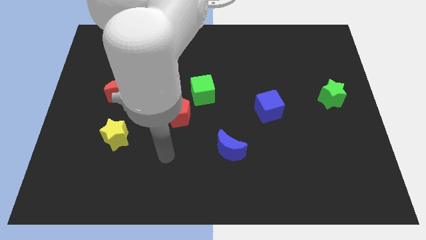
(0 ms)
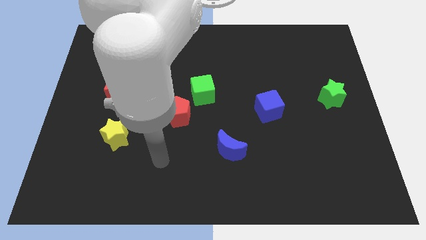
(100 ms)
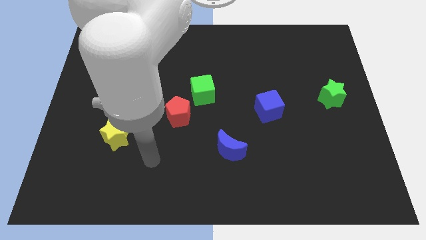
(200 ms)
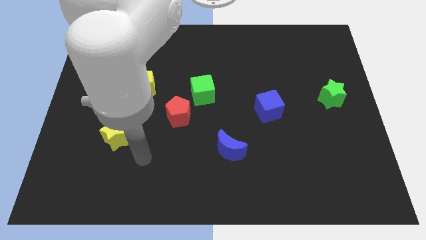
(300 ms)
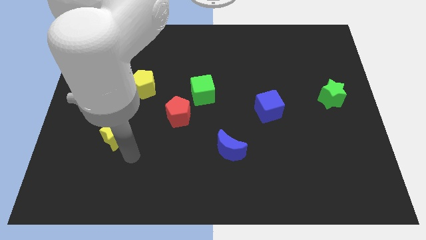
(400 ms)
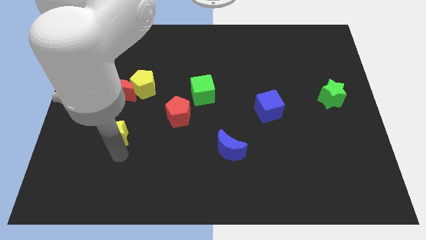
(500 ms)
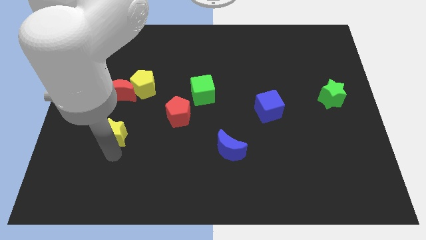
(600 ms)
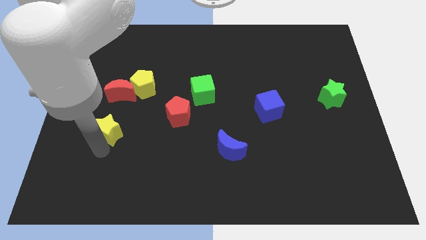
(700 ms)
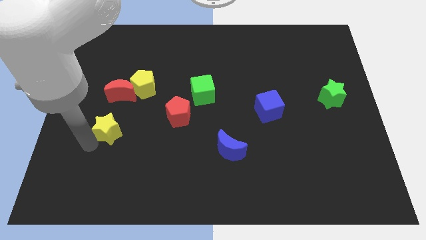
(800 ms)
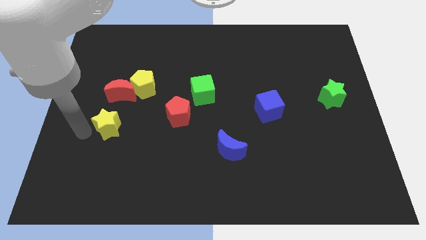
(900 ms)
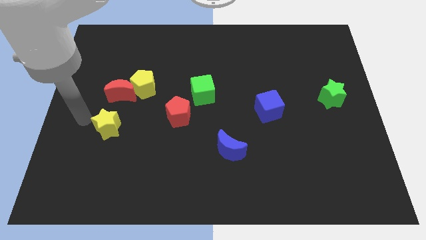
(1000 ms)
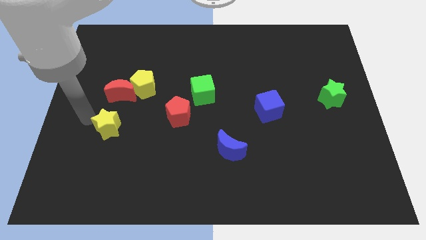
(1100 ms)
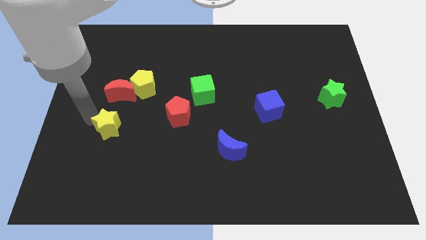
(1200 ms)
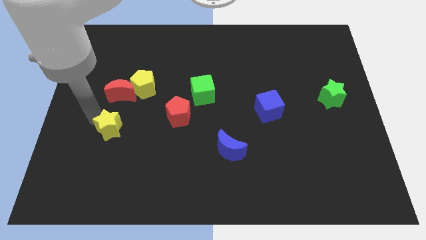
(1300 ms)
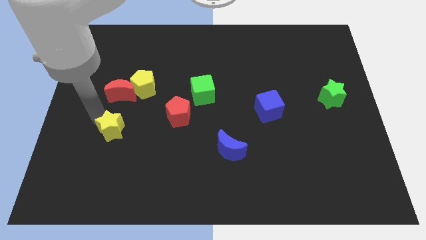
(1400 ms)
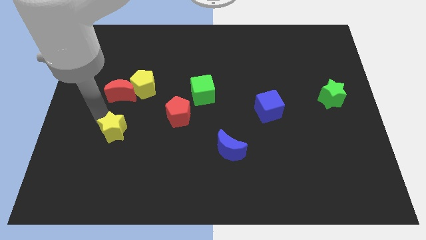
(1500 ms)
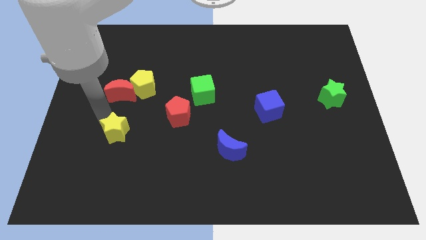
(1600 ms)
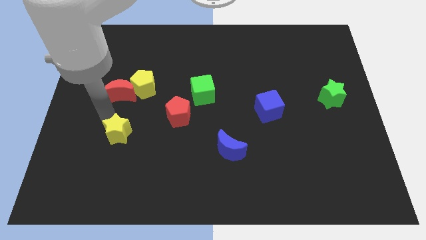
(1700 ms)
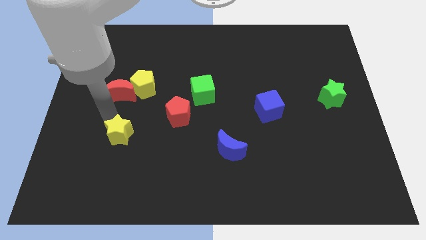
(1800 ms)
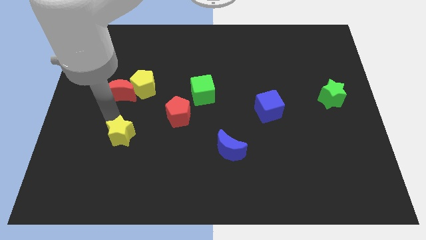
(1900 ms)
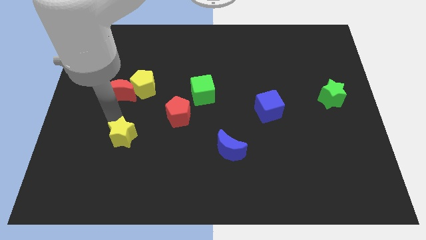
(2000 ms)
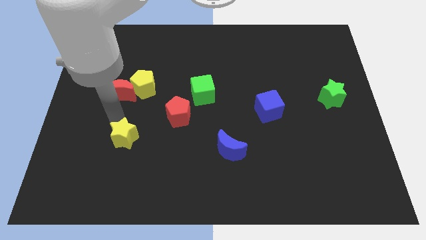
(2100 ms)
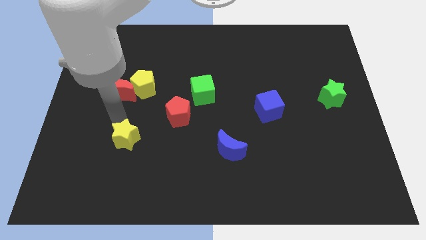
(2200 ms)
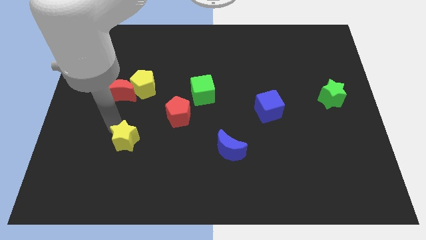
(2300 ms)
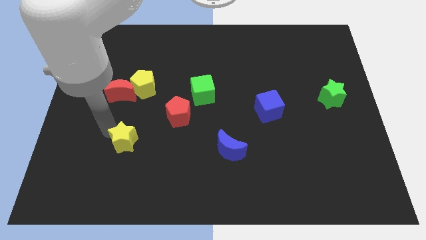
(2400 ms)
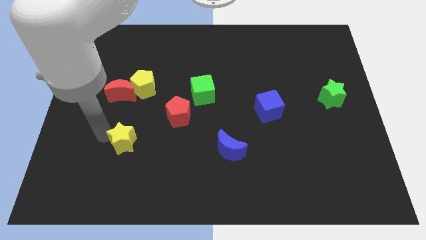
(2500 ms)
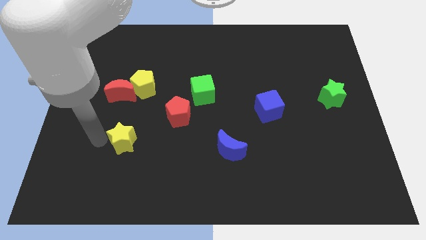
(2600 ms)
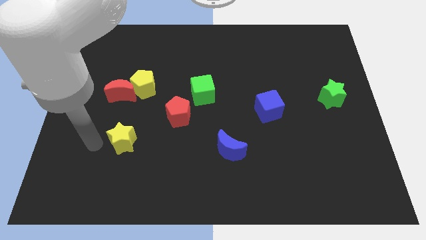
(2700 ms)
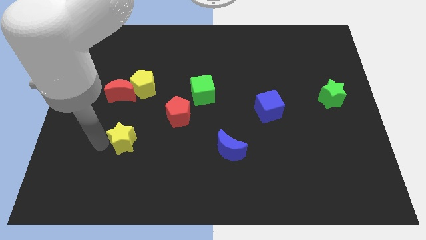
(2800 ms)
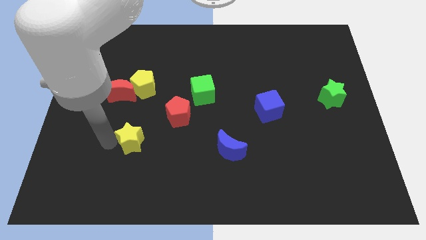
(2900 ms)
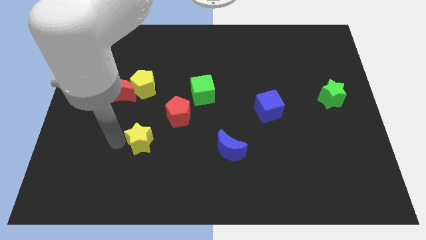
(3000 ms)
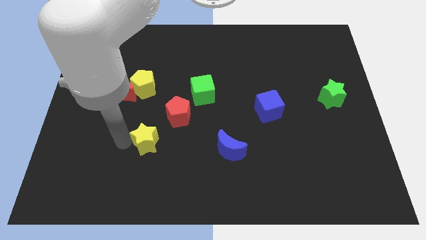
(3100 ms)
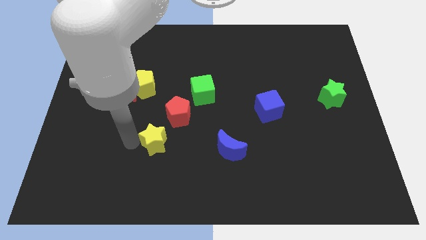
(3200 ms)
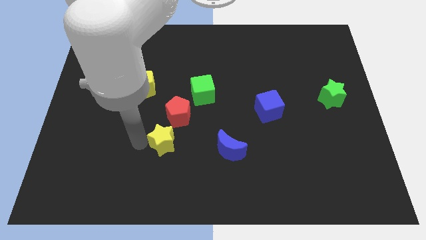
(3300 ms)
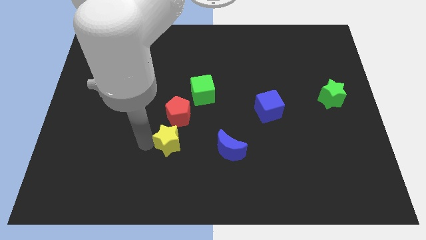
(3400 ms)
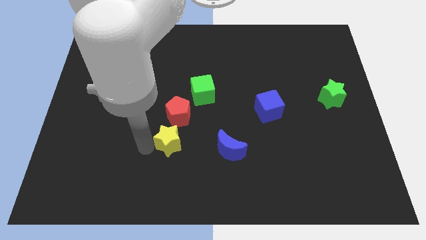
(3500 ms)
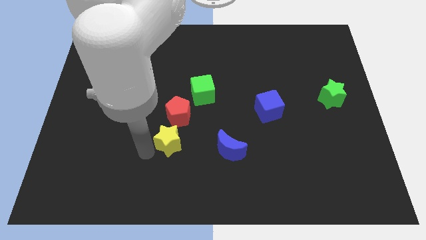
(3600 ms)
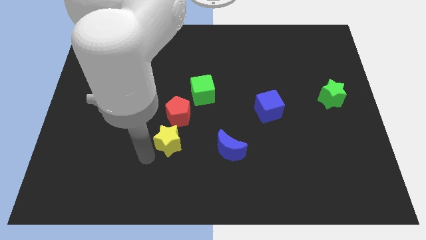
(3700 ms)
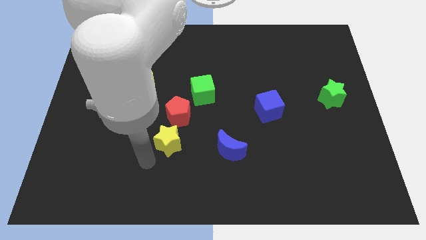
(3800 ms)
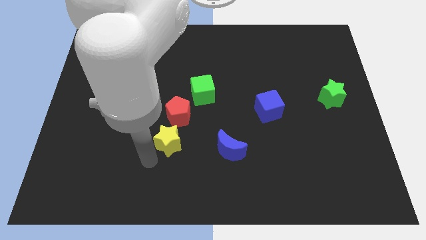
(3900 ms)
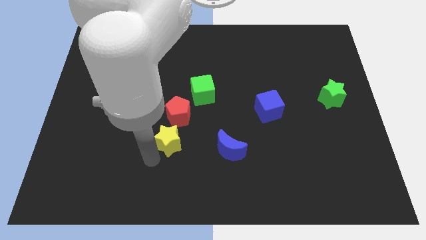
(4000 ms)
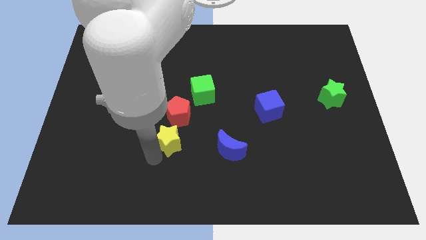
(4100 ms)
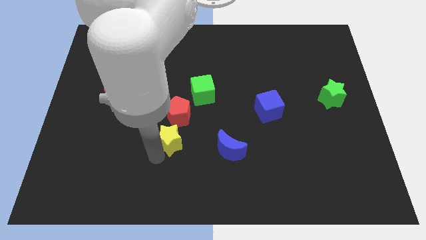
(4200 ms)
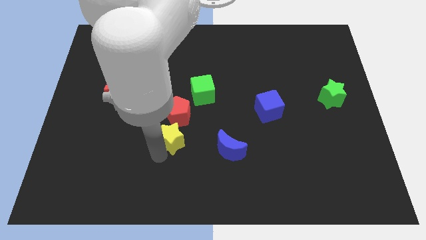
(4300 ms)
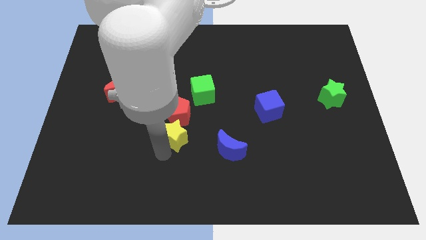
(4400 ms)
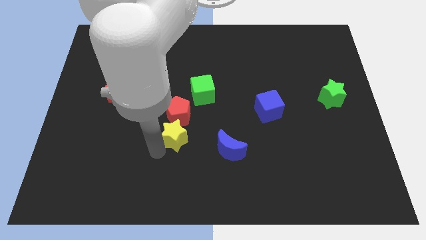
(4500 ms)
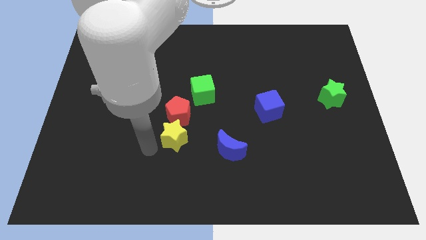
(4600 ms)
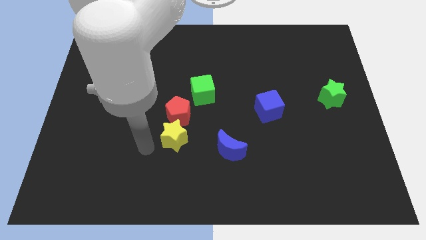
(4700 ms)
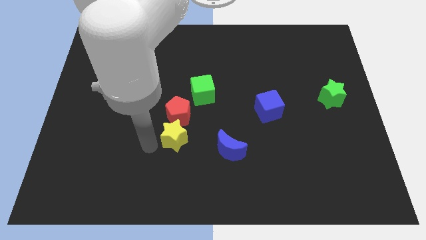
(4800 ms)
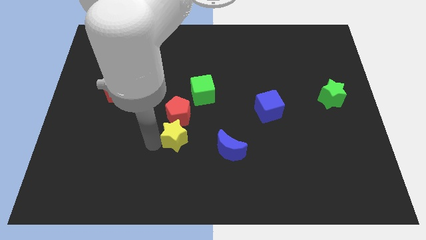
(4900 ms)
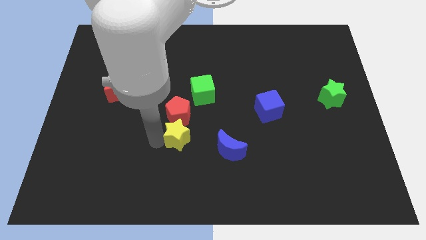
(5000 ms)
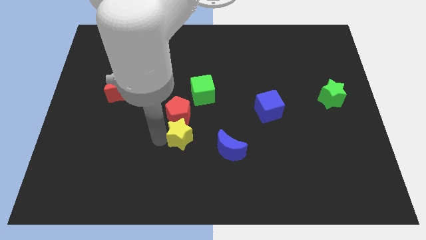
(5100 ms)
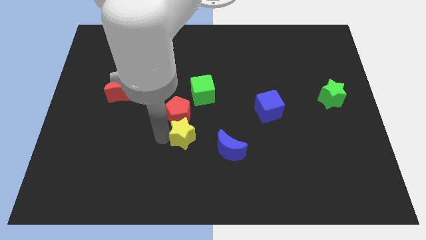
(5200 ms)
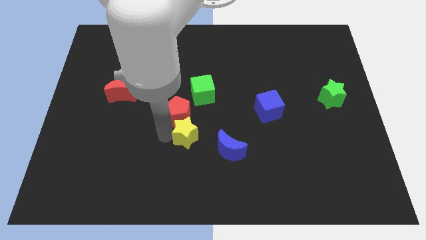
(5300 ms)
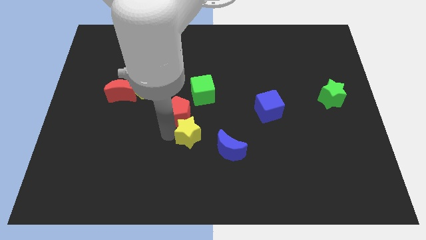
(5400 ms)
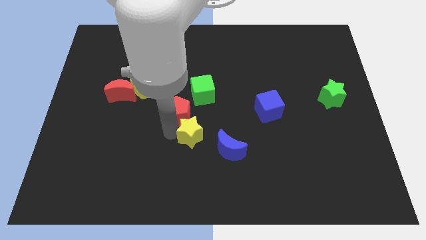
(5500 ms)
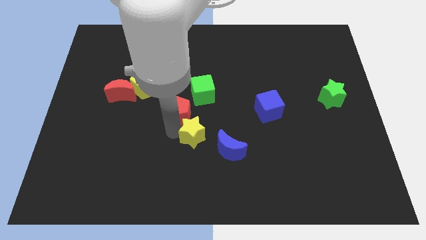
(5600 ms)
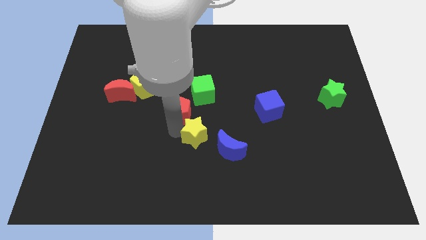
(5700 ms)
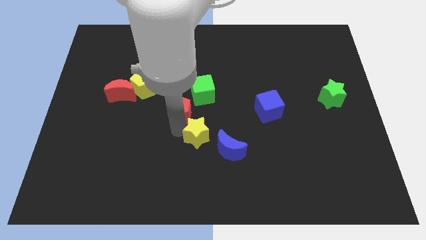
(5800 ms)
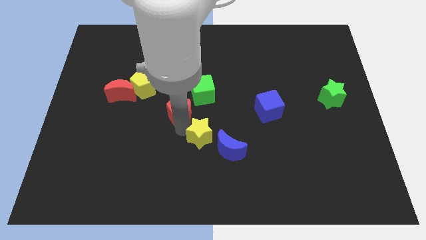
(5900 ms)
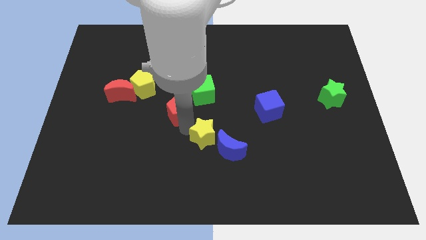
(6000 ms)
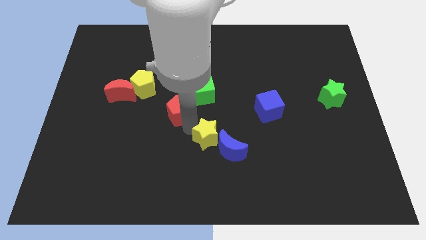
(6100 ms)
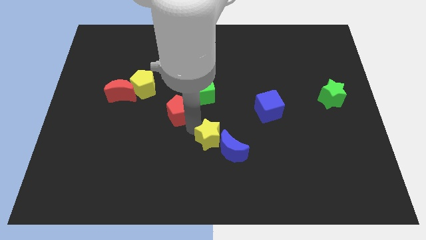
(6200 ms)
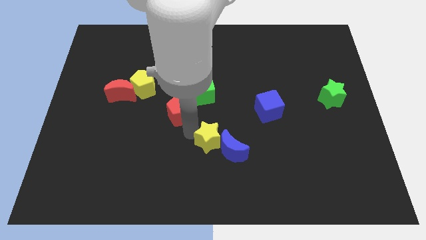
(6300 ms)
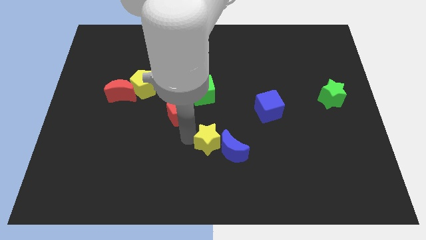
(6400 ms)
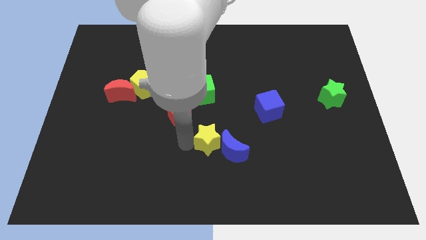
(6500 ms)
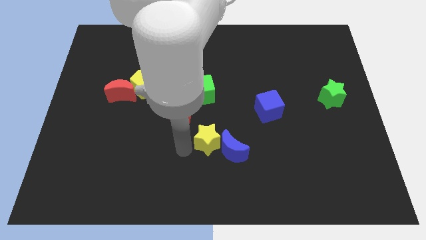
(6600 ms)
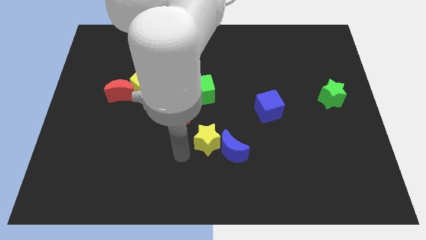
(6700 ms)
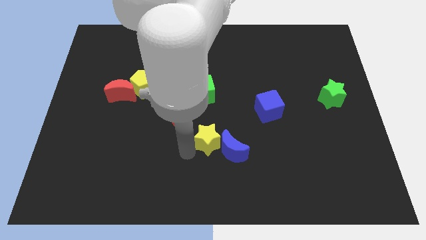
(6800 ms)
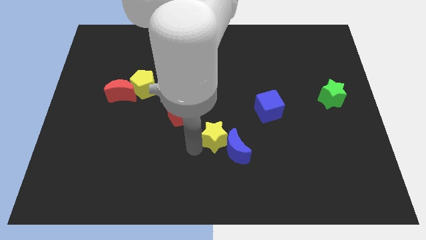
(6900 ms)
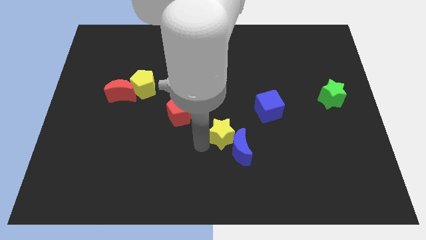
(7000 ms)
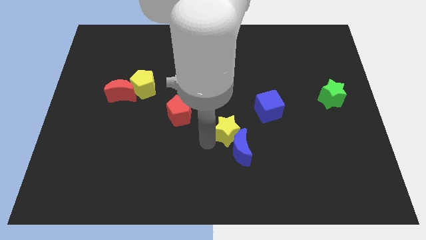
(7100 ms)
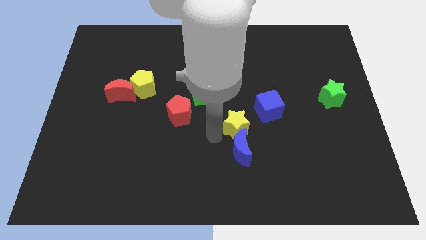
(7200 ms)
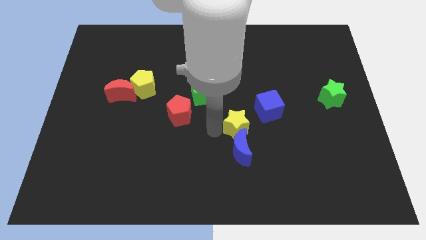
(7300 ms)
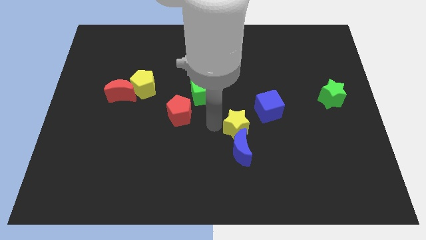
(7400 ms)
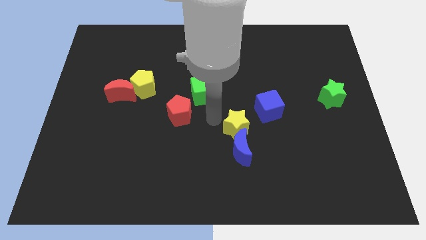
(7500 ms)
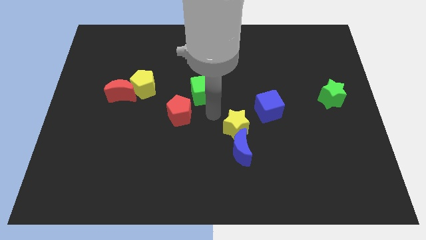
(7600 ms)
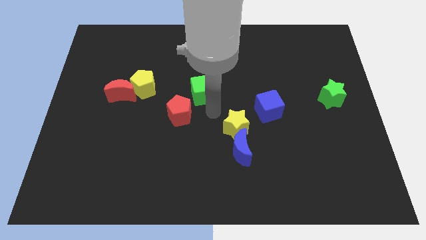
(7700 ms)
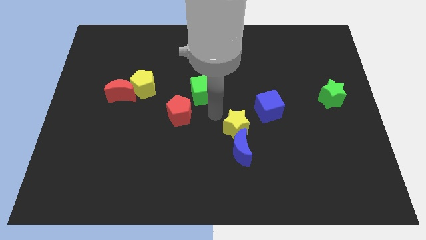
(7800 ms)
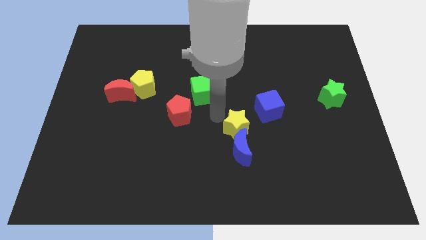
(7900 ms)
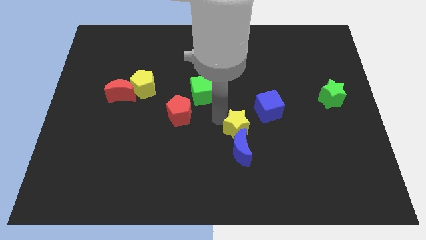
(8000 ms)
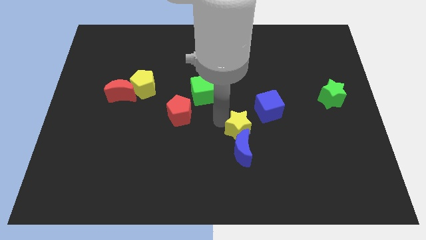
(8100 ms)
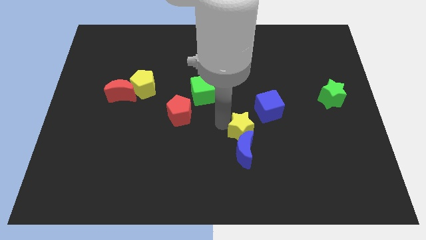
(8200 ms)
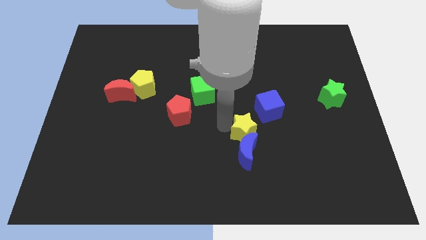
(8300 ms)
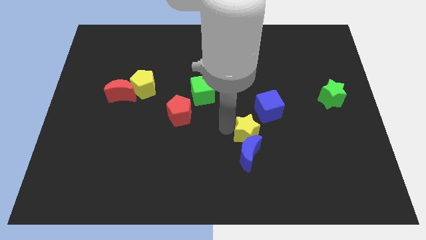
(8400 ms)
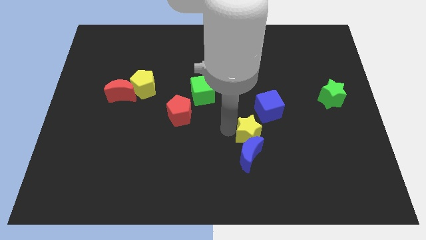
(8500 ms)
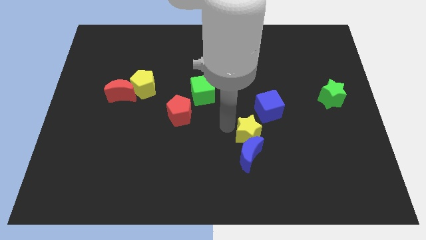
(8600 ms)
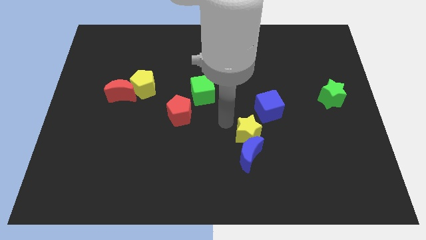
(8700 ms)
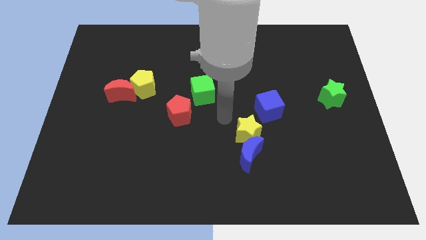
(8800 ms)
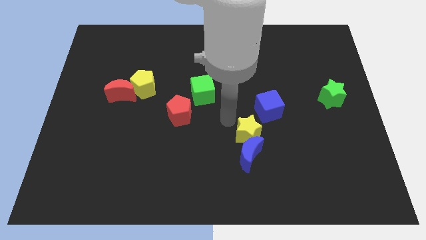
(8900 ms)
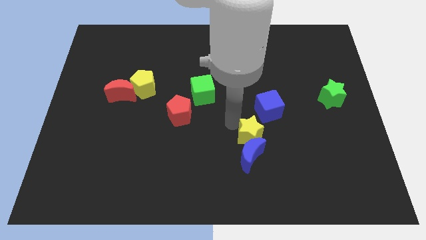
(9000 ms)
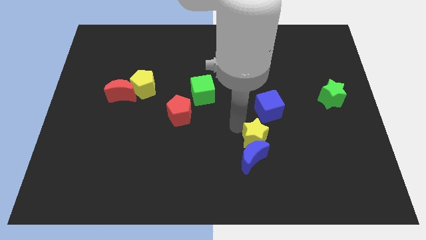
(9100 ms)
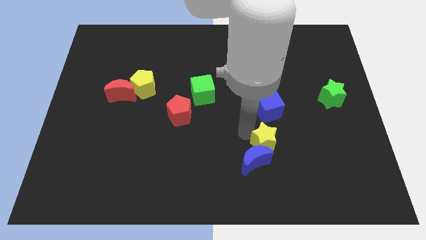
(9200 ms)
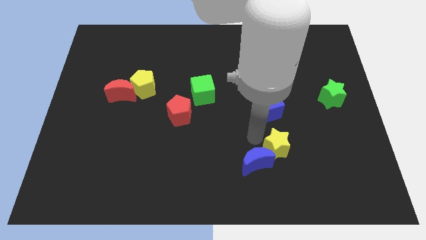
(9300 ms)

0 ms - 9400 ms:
move the yellow star just right of the blue moon
